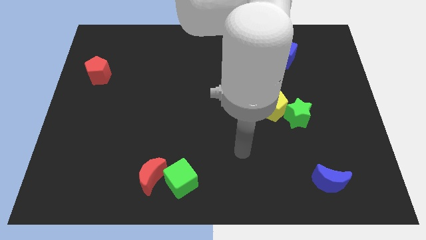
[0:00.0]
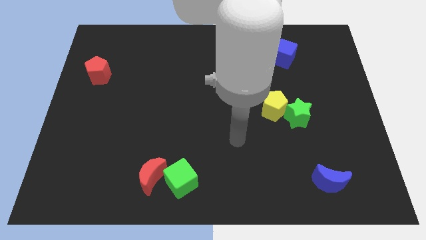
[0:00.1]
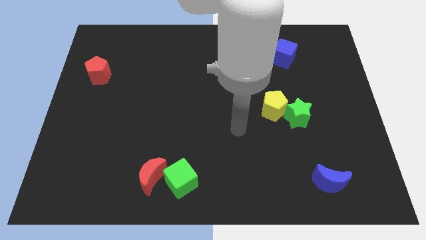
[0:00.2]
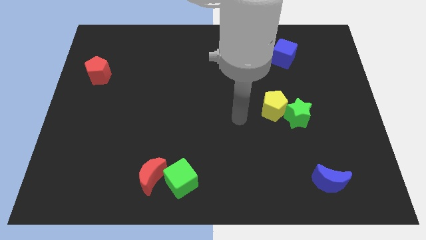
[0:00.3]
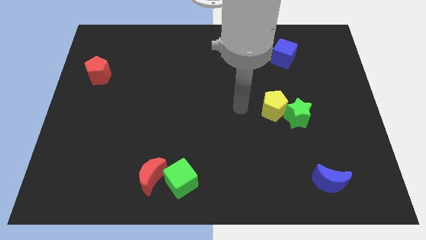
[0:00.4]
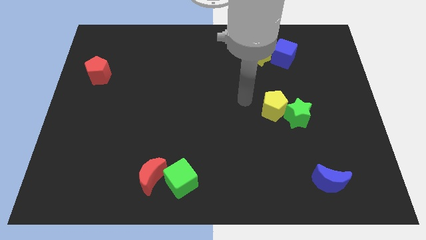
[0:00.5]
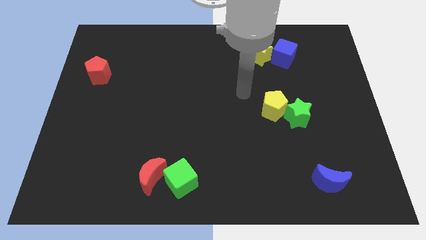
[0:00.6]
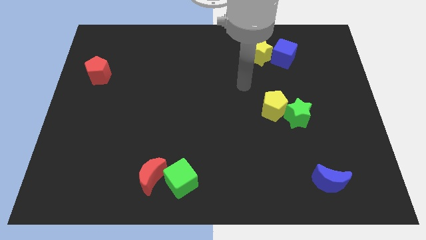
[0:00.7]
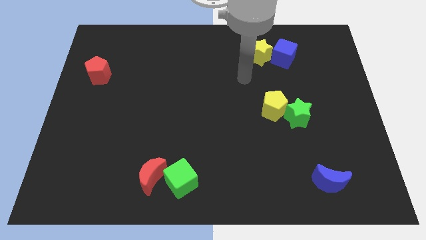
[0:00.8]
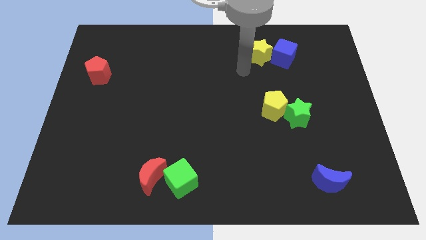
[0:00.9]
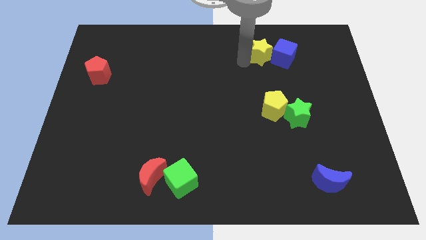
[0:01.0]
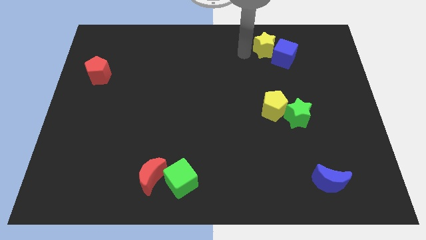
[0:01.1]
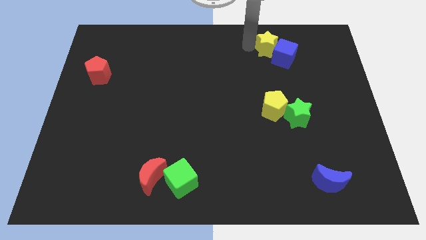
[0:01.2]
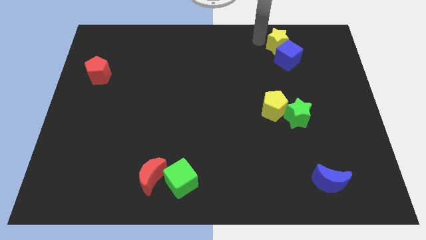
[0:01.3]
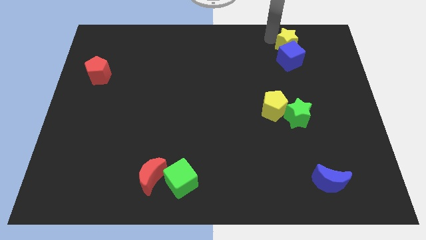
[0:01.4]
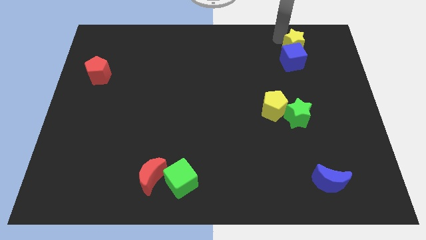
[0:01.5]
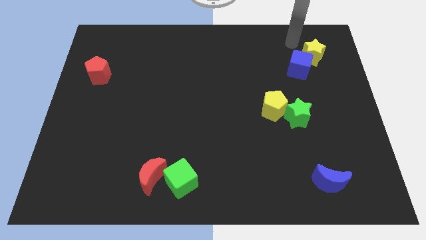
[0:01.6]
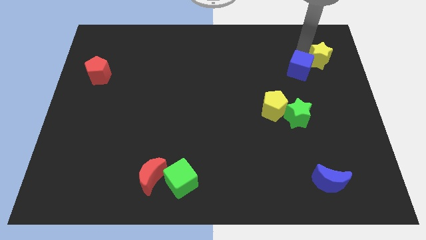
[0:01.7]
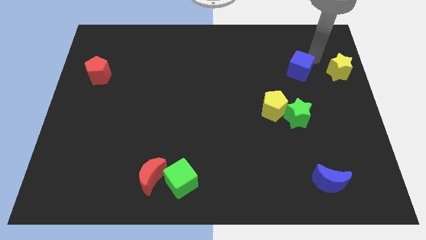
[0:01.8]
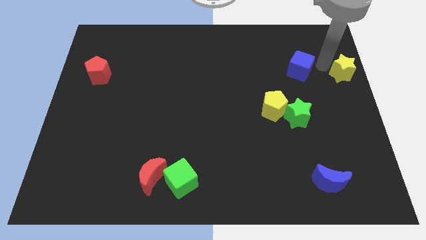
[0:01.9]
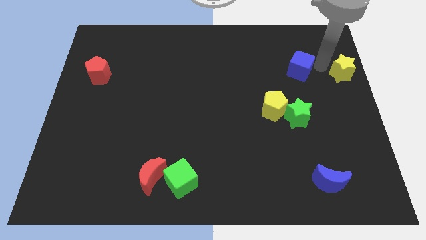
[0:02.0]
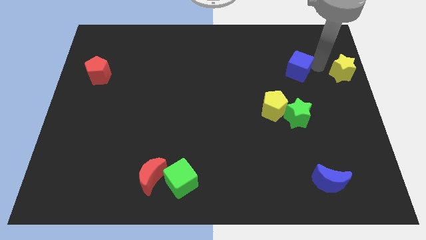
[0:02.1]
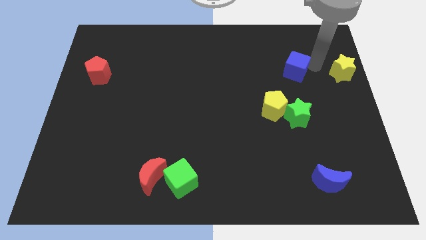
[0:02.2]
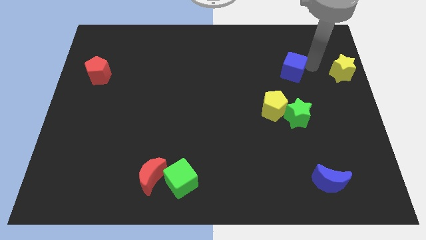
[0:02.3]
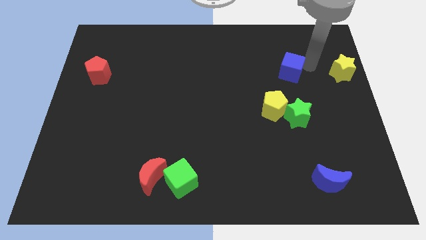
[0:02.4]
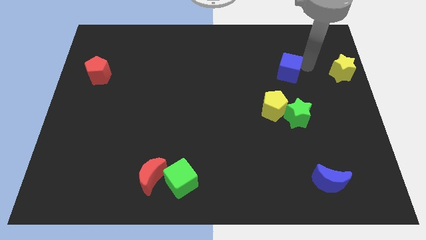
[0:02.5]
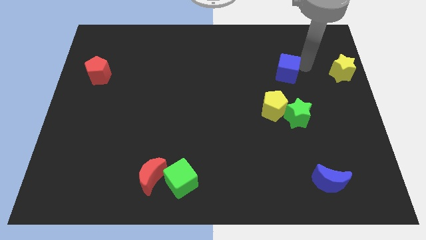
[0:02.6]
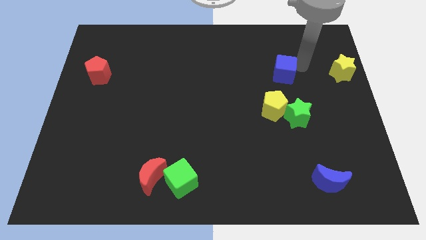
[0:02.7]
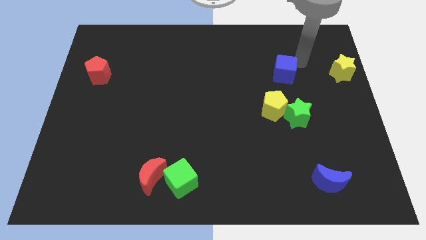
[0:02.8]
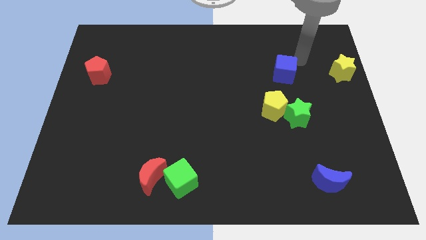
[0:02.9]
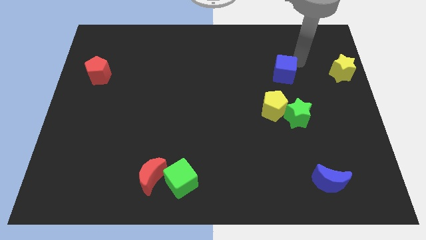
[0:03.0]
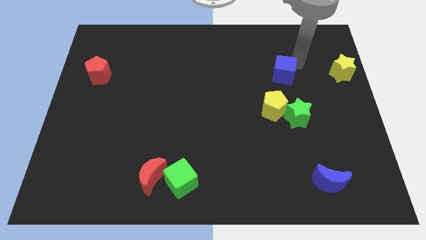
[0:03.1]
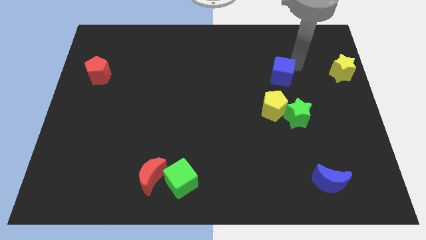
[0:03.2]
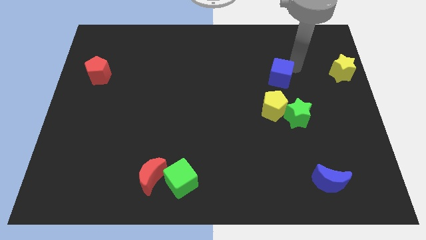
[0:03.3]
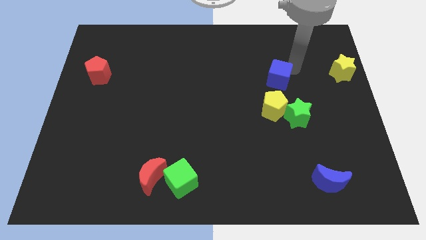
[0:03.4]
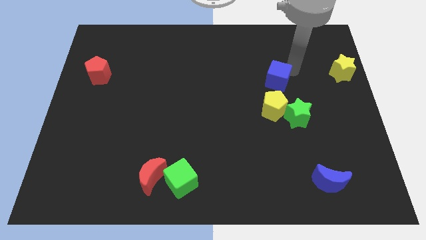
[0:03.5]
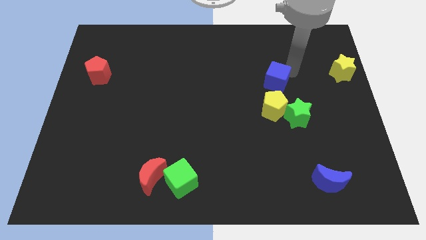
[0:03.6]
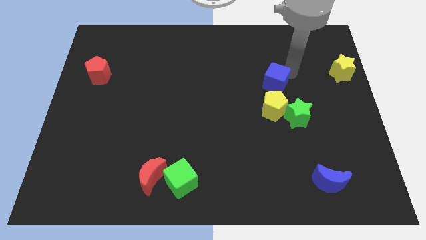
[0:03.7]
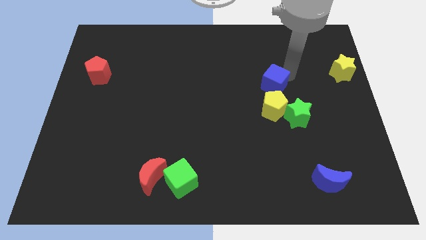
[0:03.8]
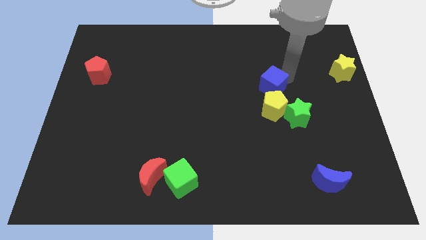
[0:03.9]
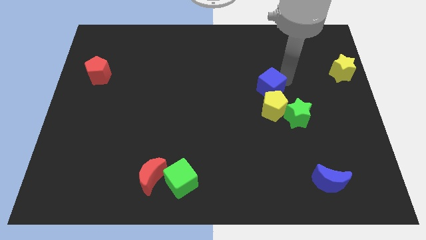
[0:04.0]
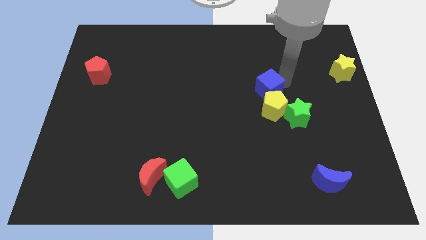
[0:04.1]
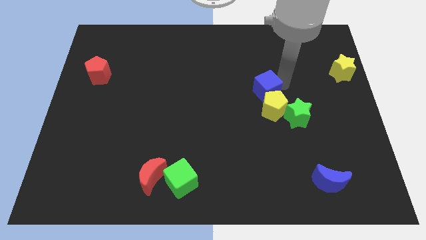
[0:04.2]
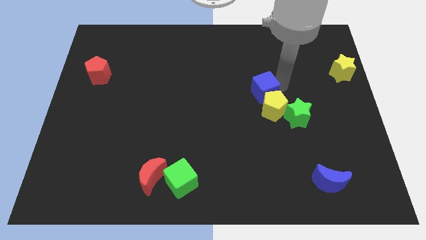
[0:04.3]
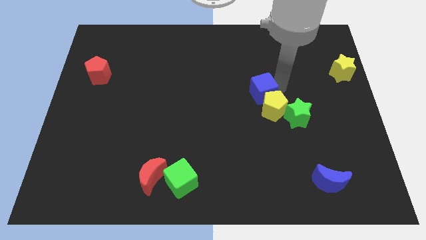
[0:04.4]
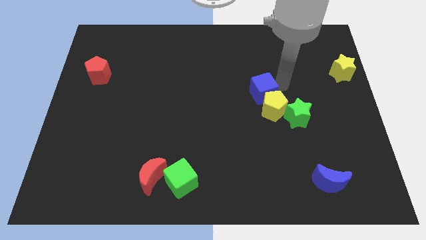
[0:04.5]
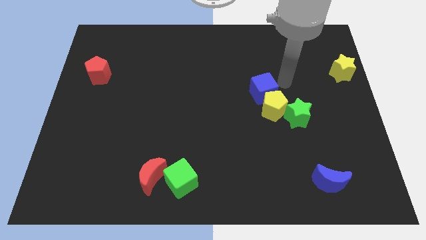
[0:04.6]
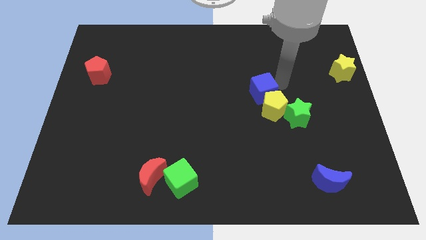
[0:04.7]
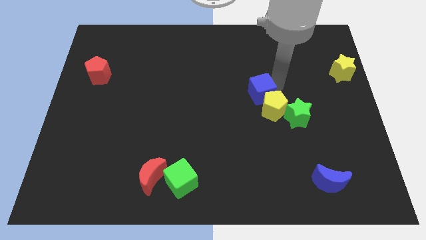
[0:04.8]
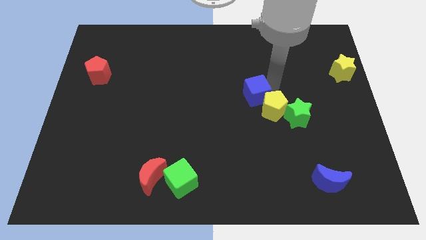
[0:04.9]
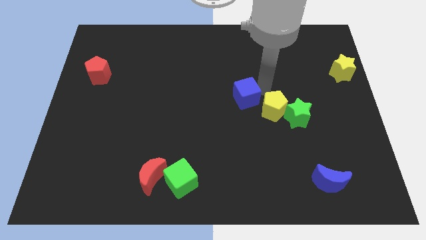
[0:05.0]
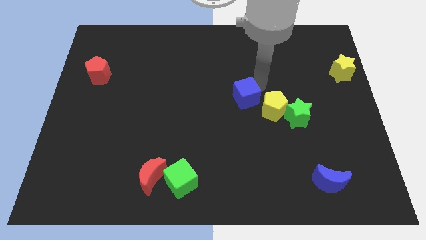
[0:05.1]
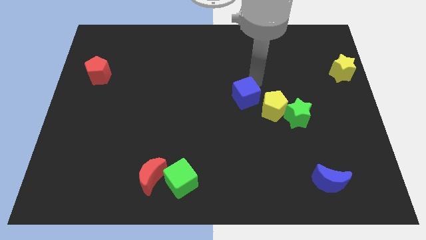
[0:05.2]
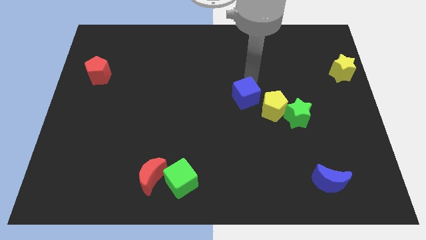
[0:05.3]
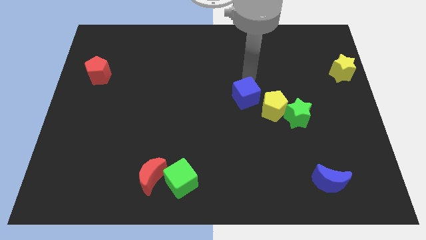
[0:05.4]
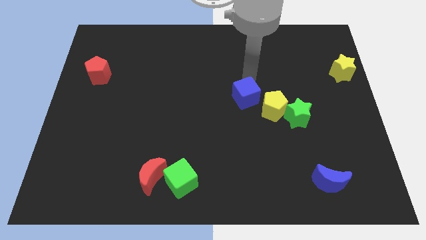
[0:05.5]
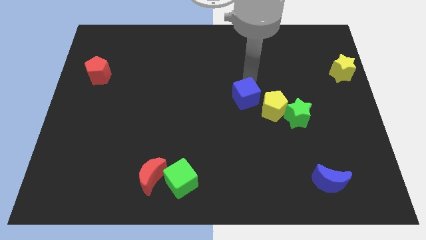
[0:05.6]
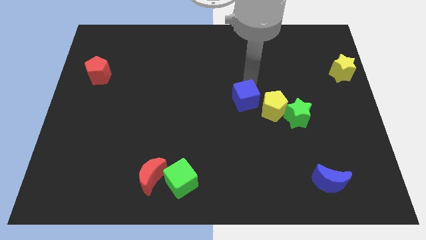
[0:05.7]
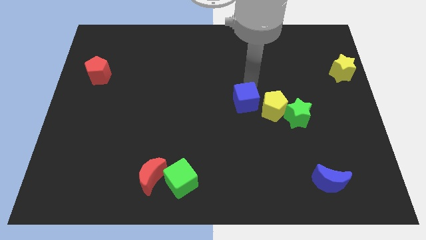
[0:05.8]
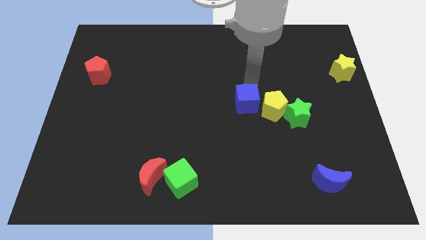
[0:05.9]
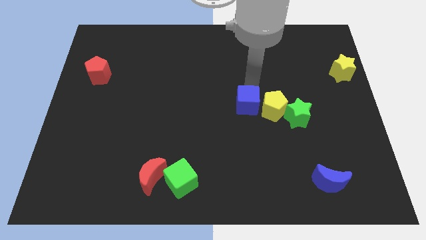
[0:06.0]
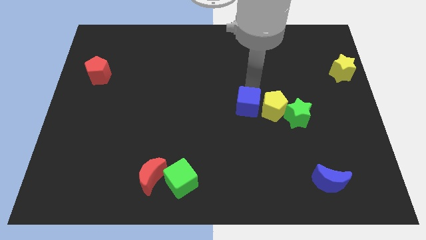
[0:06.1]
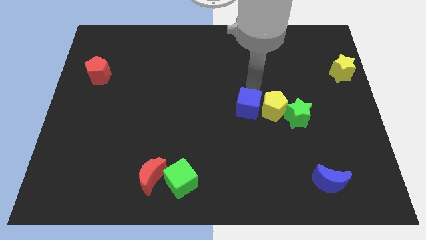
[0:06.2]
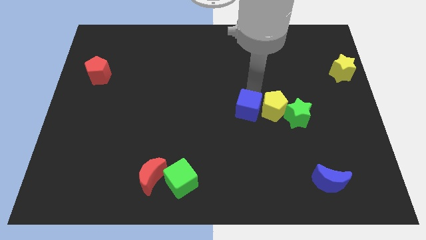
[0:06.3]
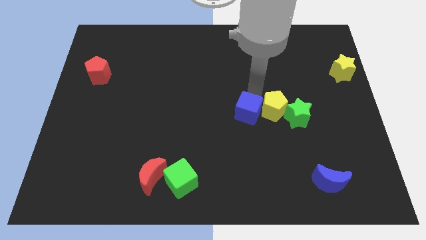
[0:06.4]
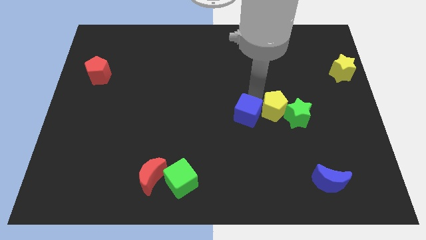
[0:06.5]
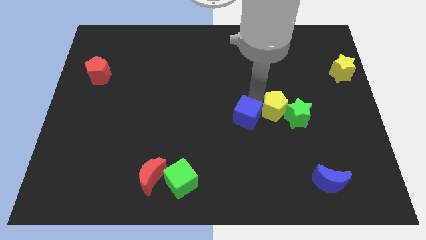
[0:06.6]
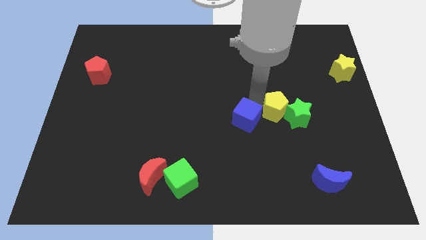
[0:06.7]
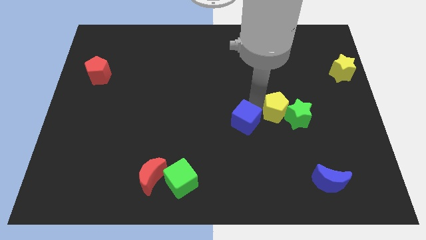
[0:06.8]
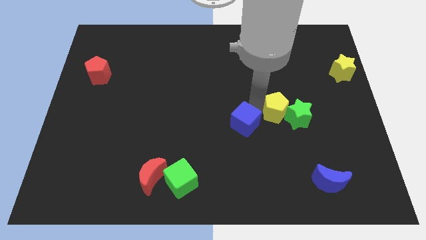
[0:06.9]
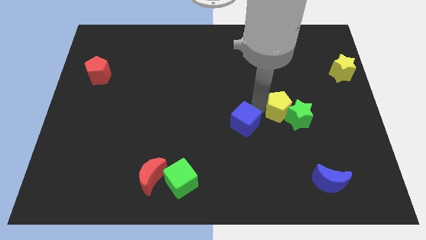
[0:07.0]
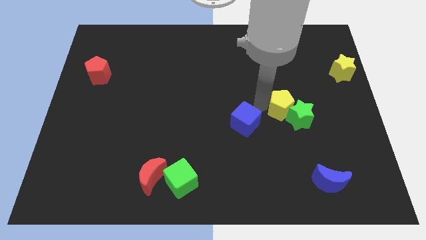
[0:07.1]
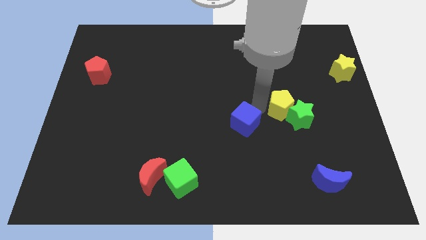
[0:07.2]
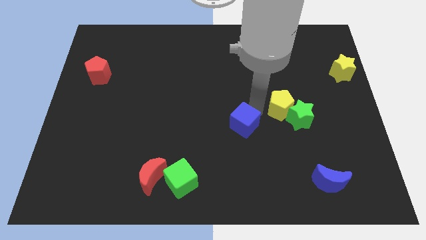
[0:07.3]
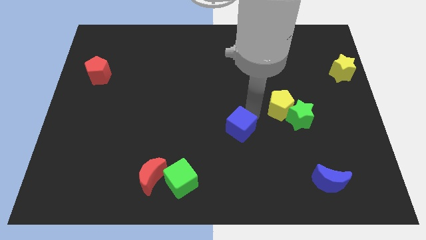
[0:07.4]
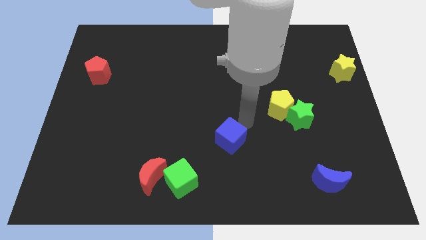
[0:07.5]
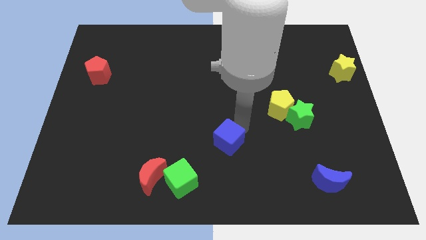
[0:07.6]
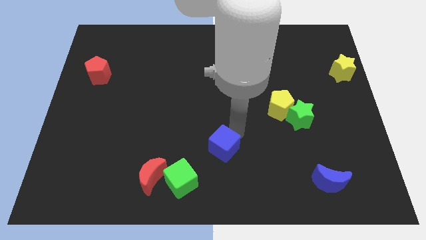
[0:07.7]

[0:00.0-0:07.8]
put the blue cube to the top right of the green cube
